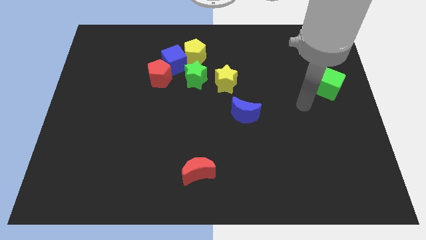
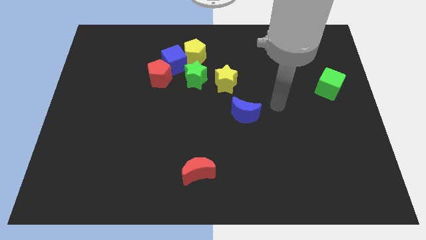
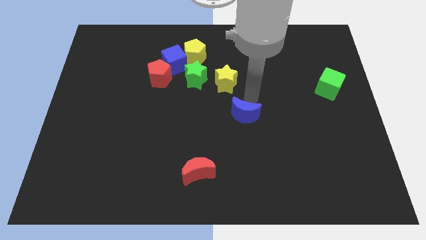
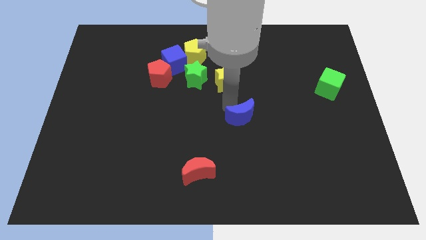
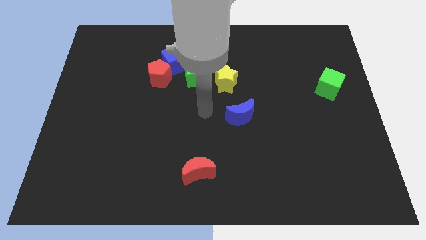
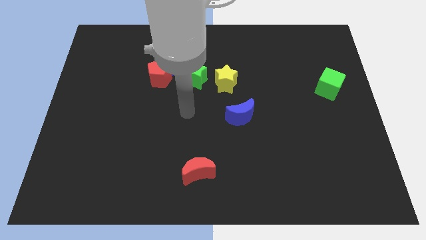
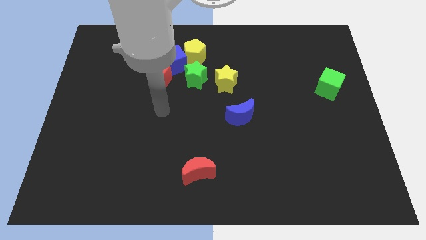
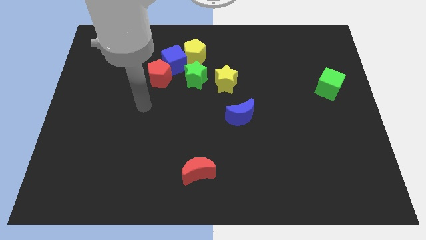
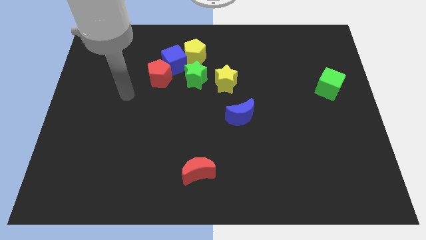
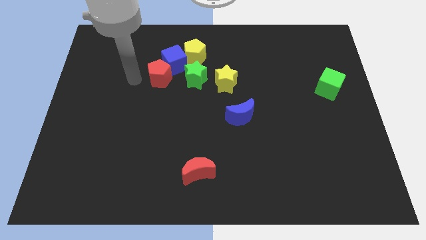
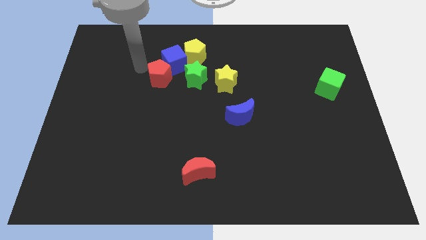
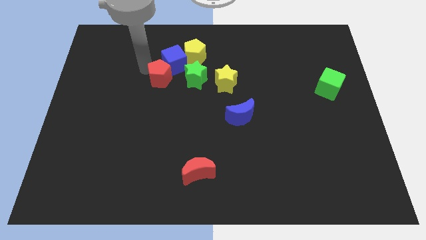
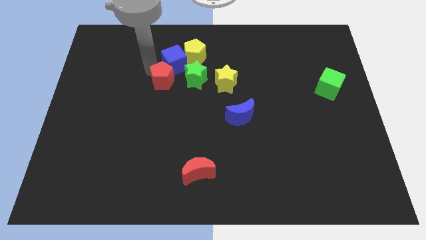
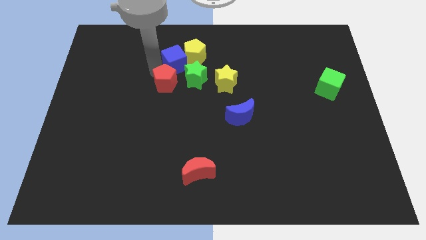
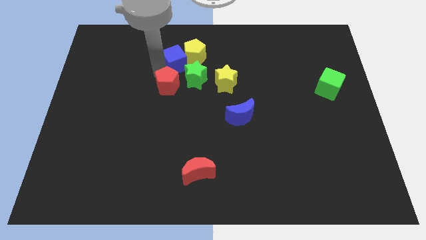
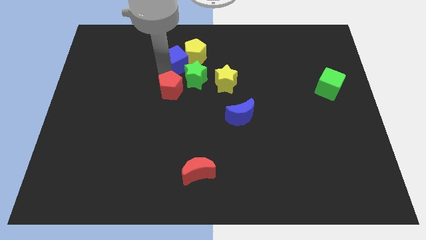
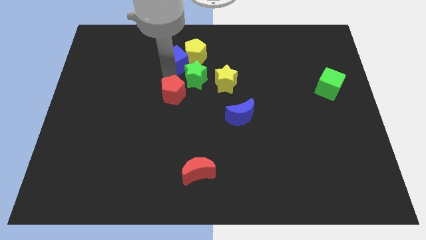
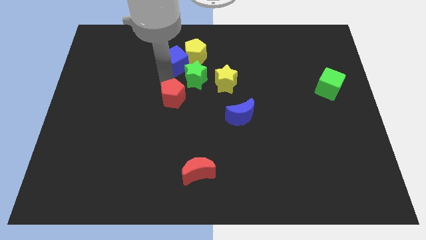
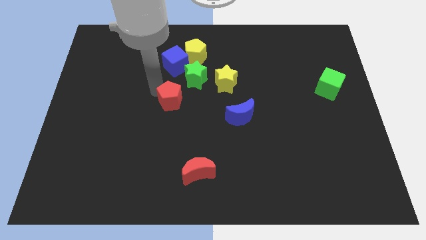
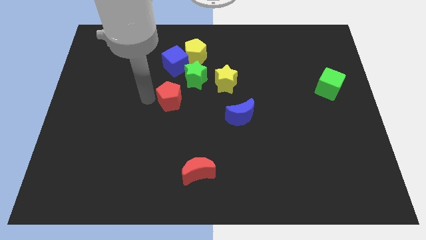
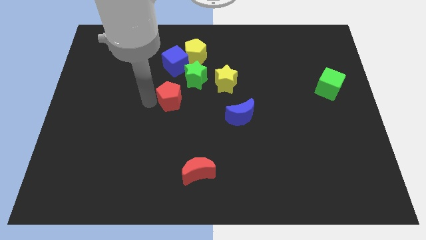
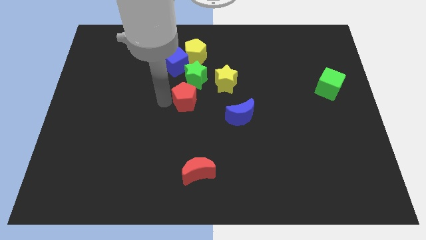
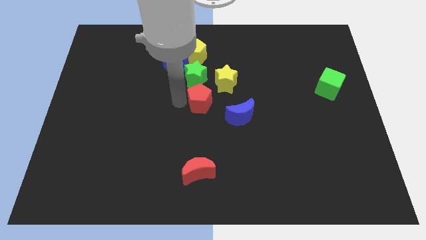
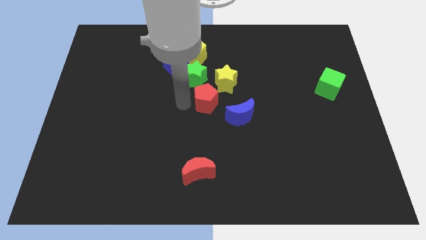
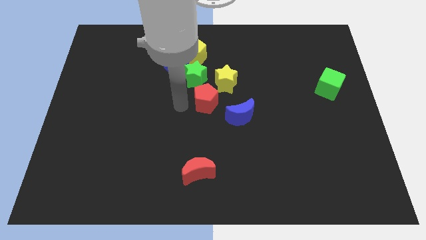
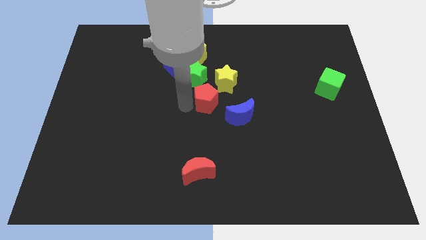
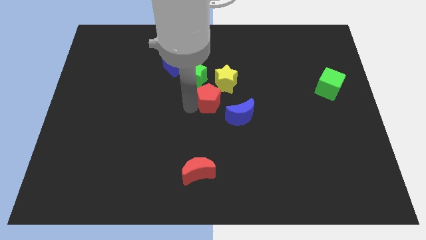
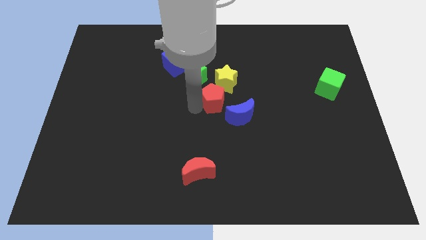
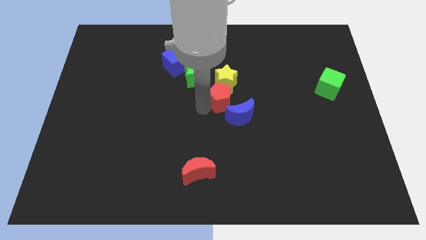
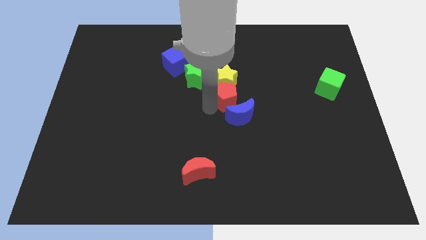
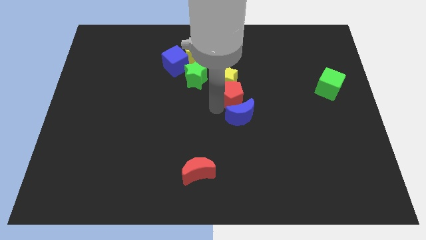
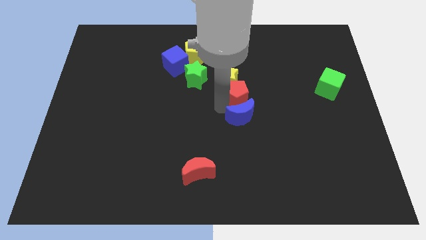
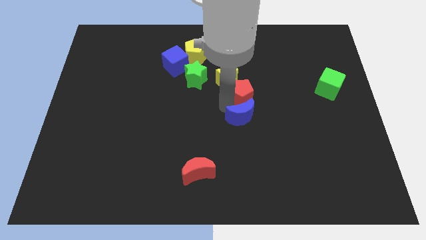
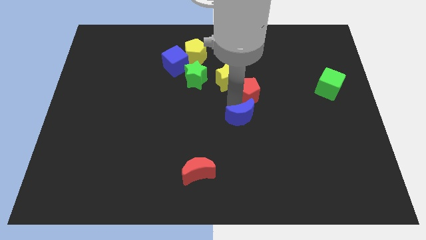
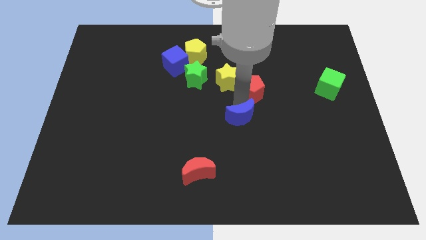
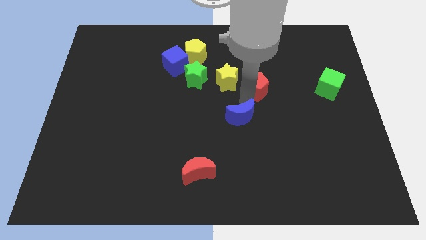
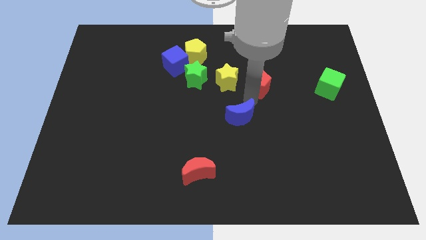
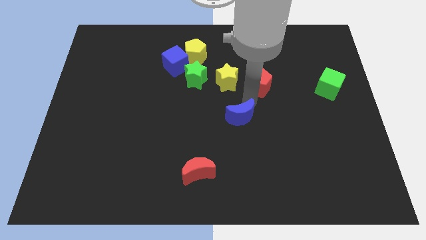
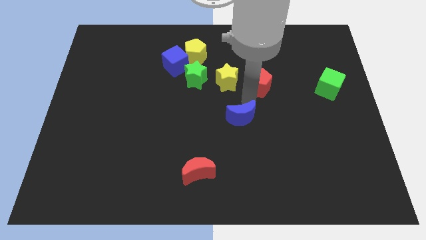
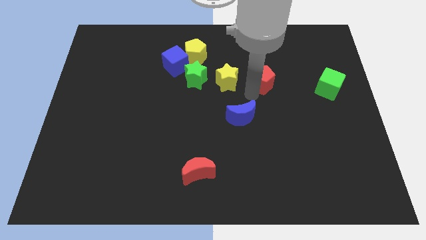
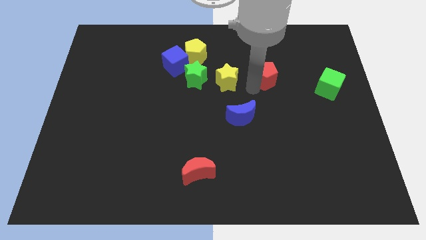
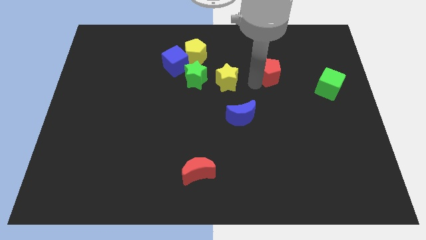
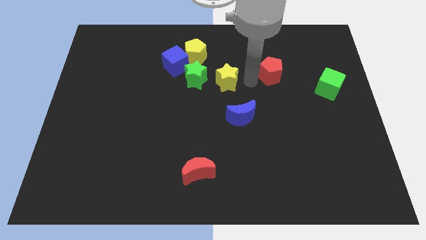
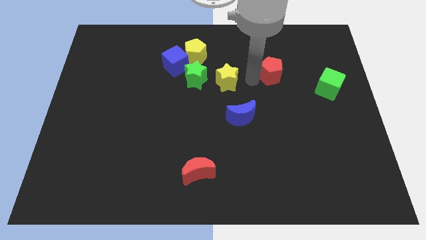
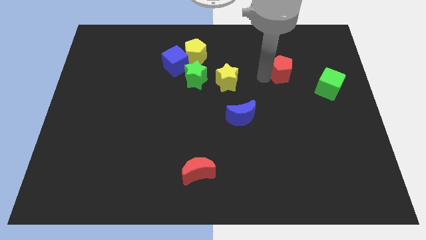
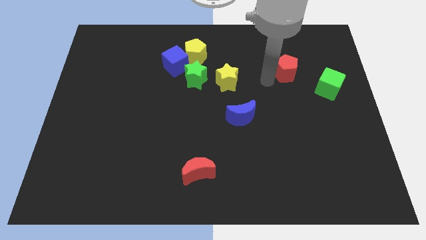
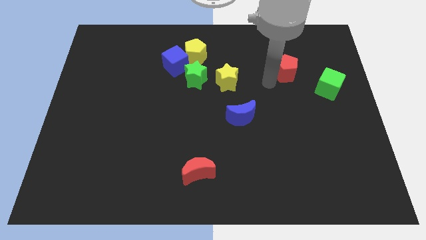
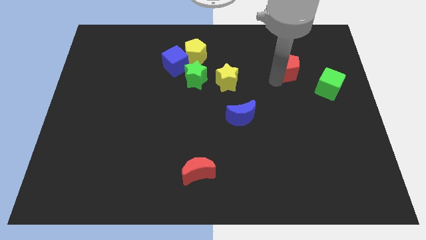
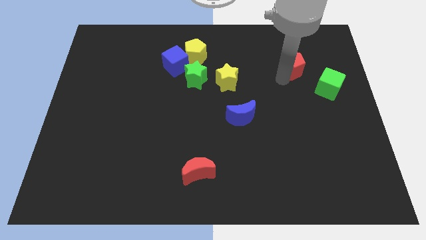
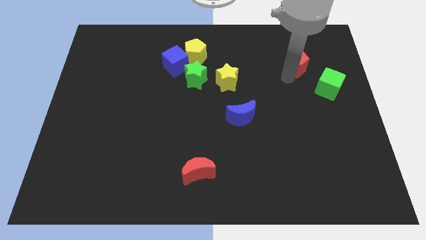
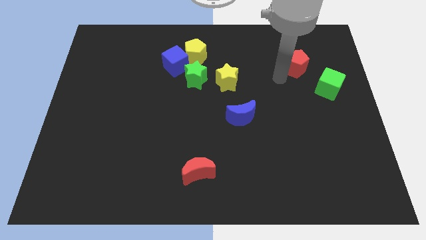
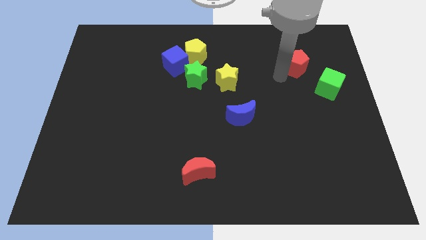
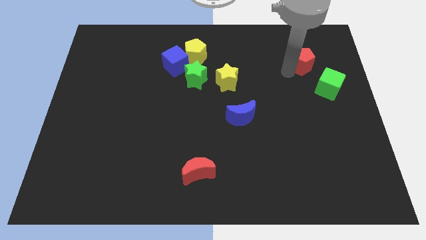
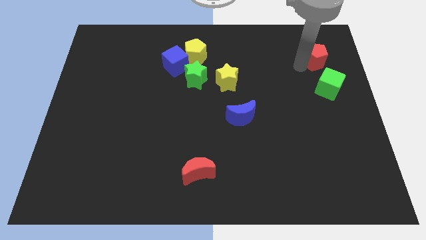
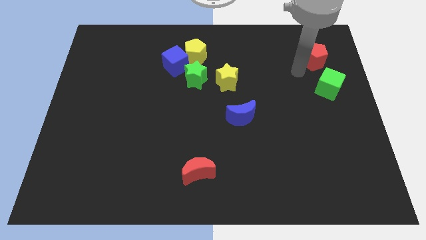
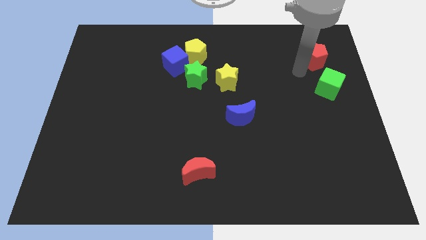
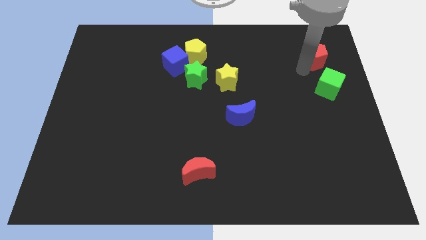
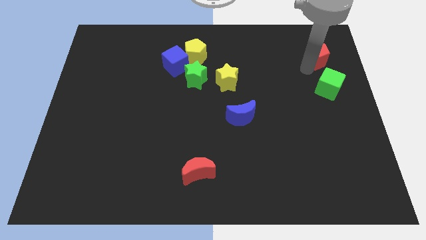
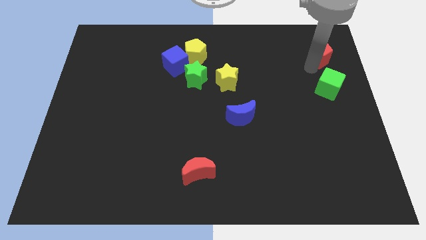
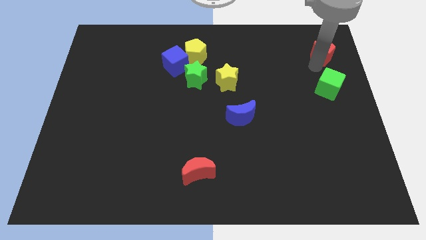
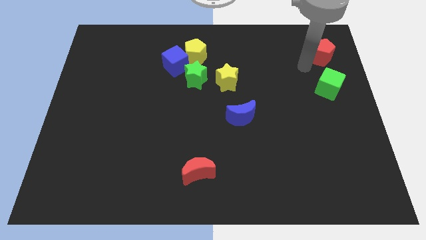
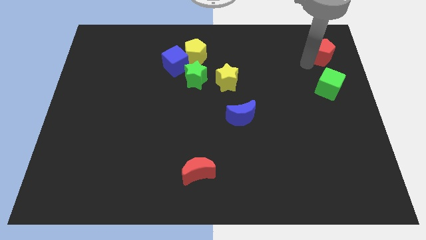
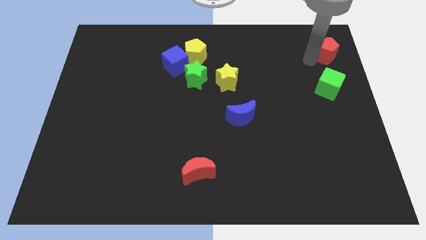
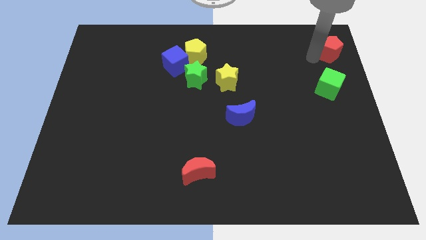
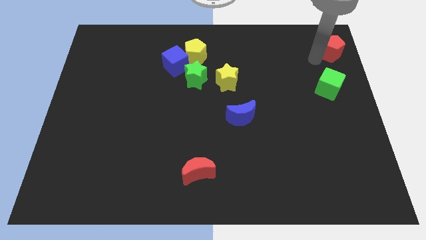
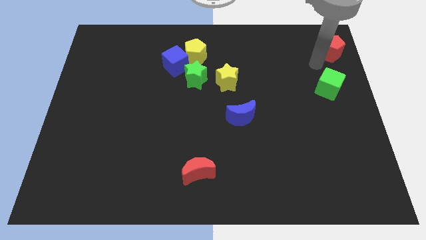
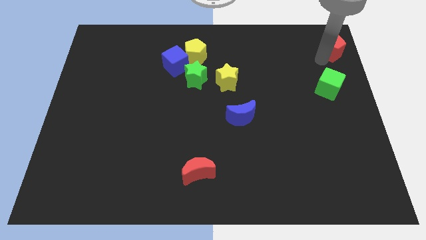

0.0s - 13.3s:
slide the red pentagon to the upper right corner

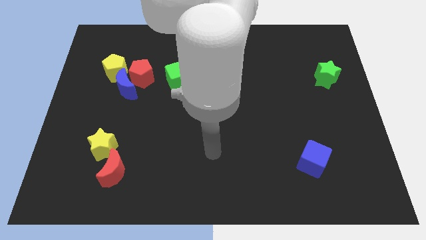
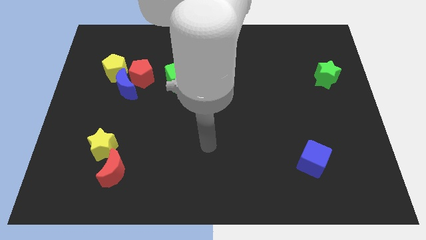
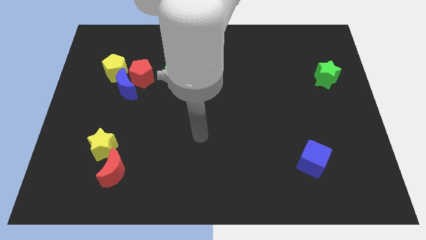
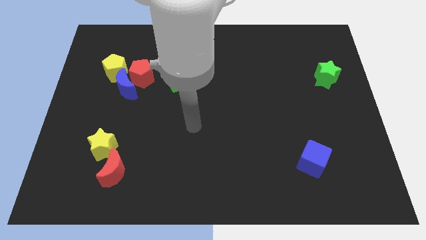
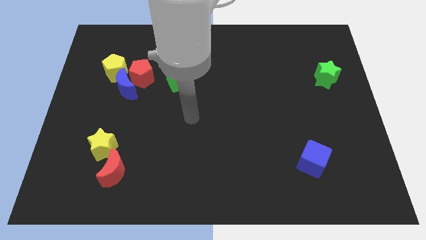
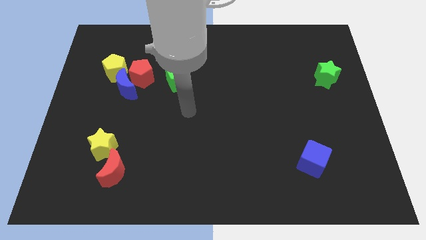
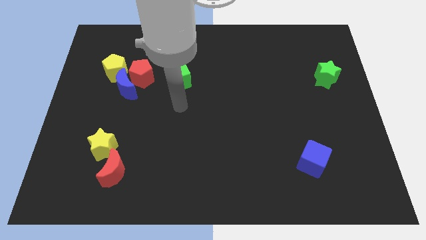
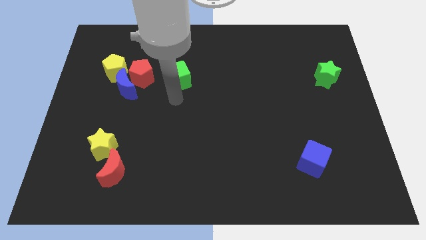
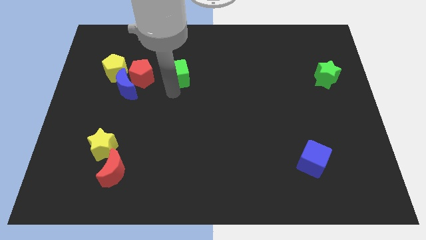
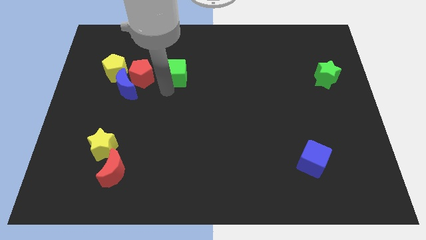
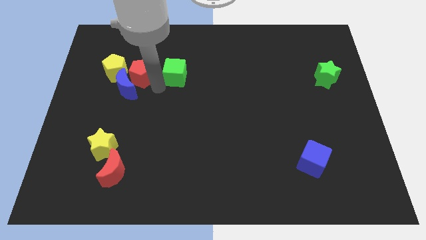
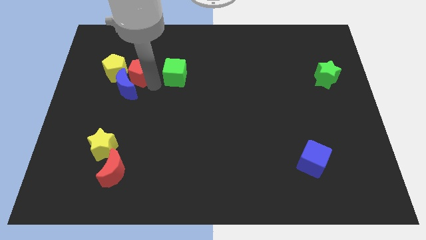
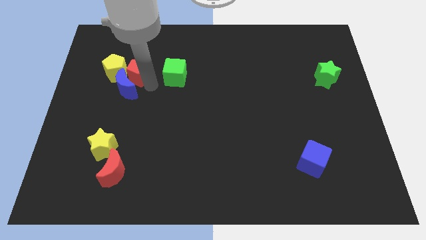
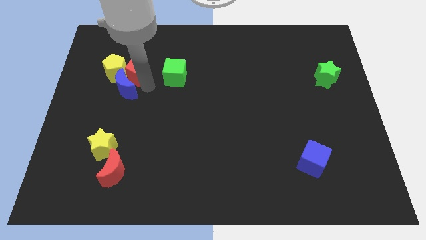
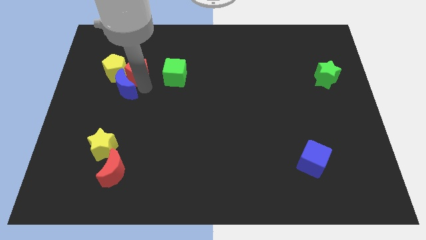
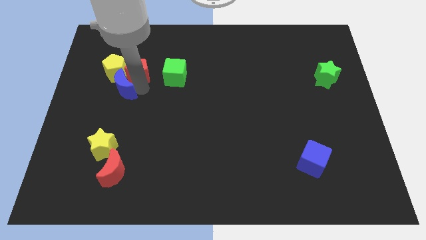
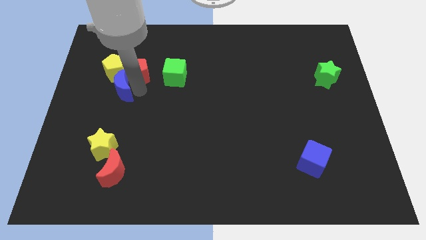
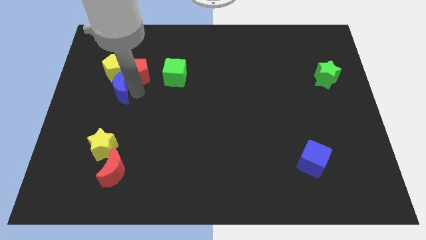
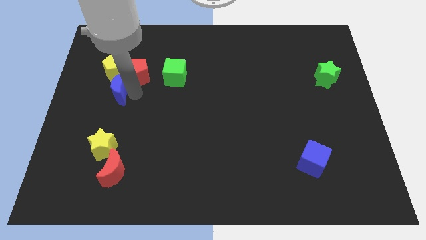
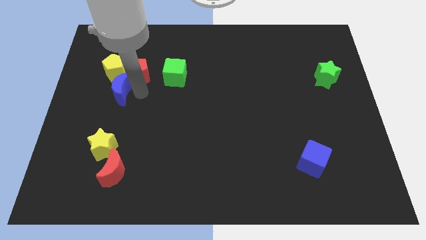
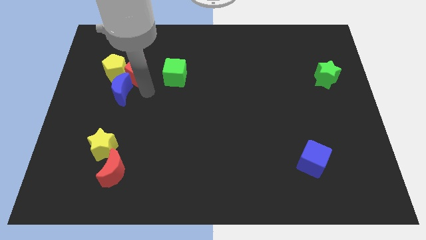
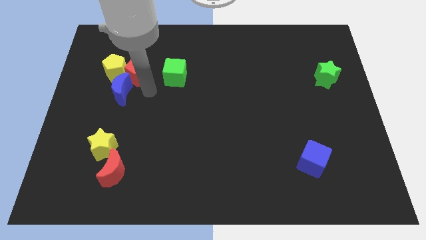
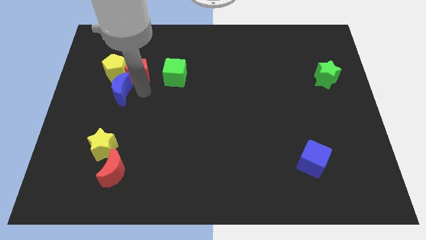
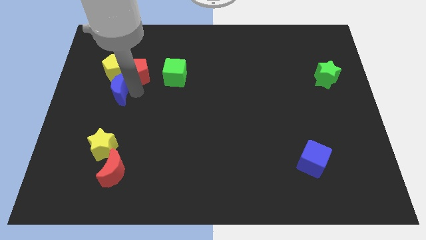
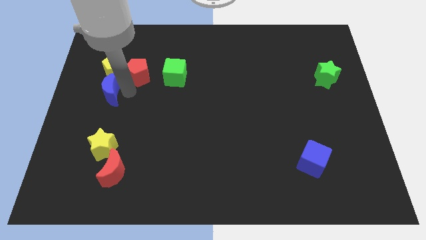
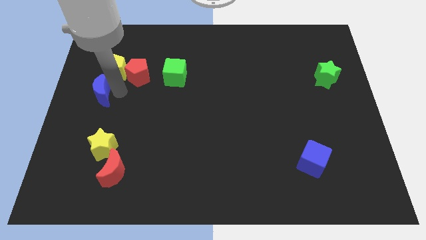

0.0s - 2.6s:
put the blue moon to the left side of the board
